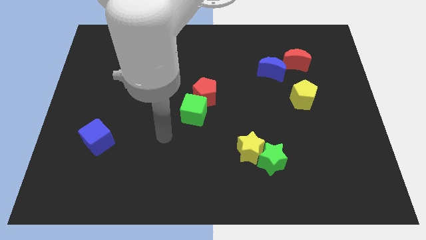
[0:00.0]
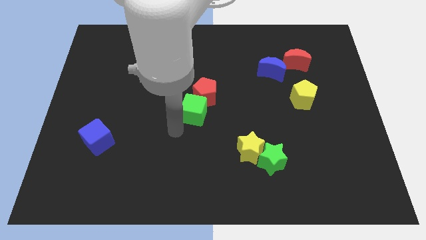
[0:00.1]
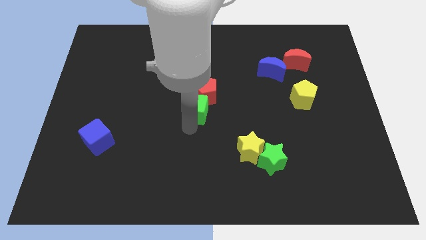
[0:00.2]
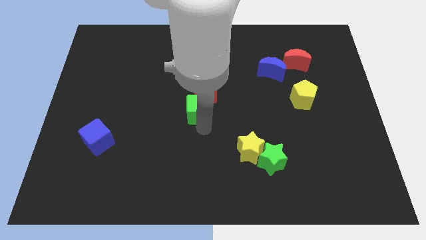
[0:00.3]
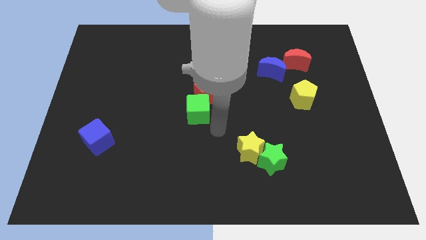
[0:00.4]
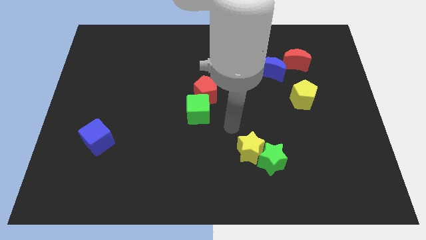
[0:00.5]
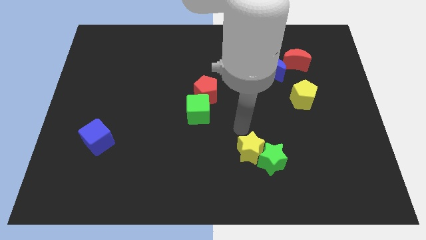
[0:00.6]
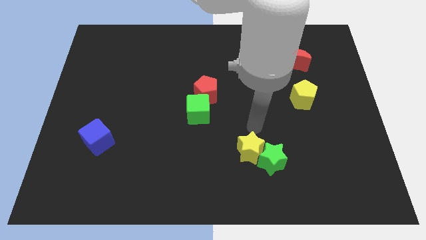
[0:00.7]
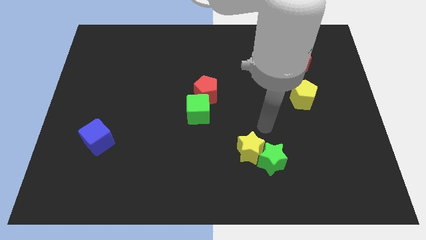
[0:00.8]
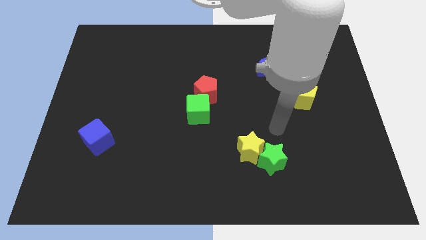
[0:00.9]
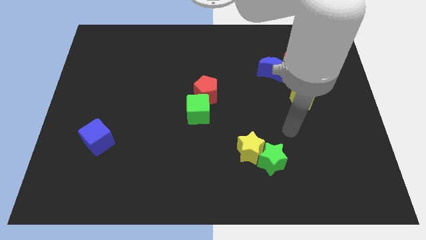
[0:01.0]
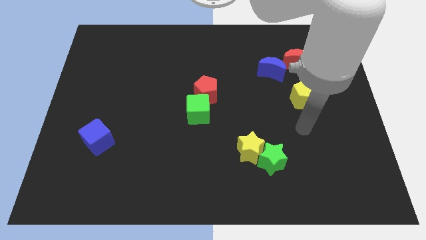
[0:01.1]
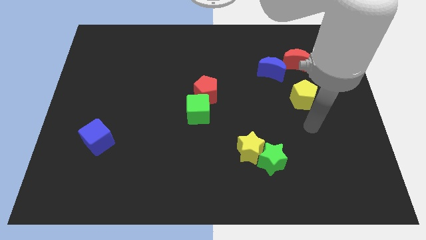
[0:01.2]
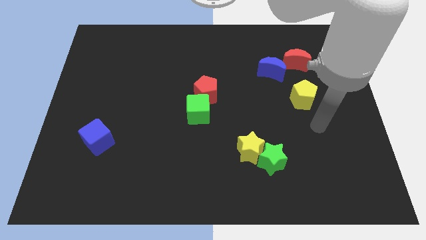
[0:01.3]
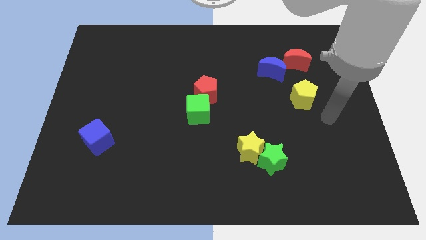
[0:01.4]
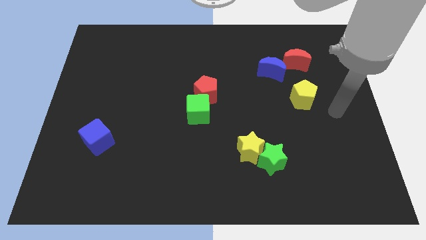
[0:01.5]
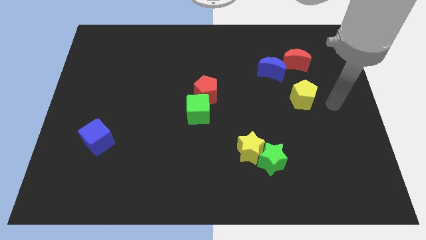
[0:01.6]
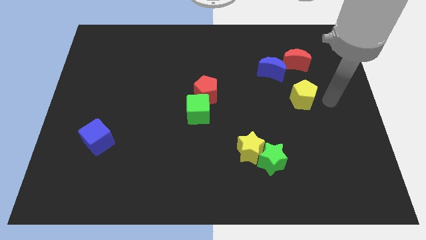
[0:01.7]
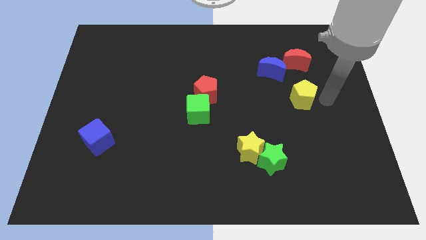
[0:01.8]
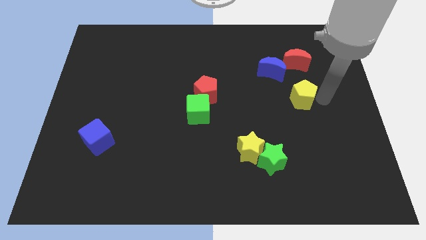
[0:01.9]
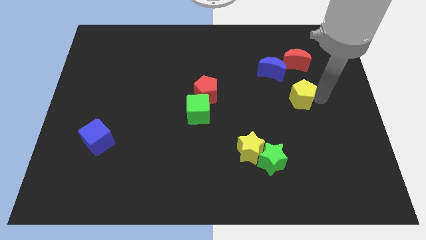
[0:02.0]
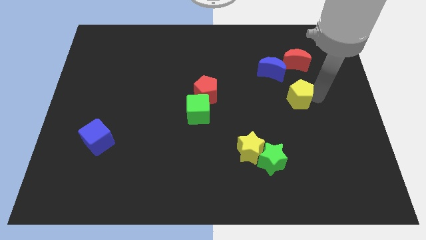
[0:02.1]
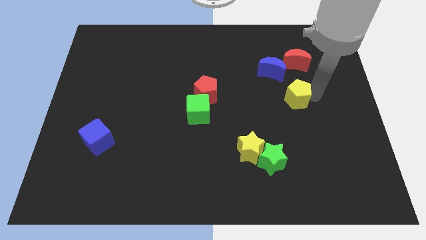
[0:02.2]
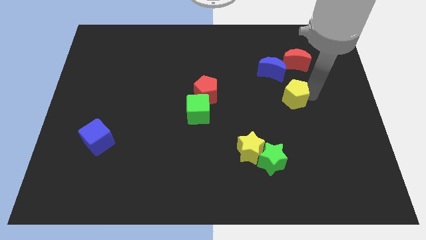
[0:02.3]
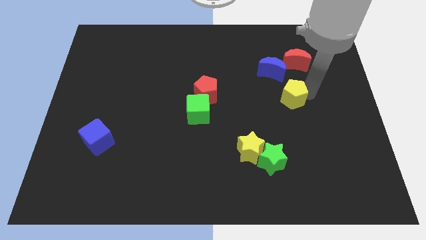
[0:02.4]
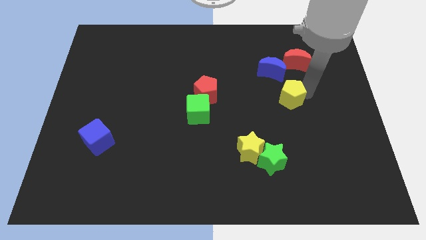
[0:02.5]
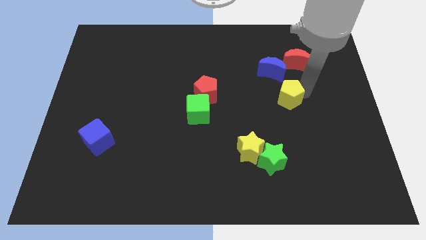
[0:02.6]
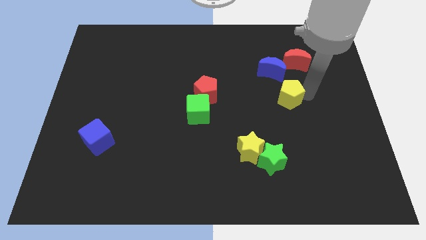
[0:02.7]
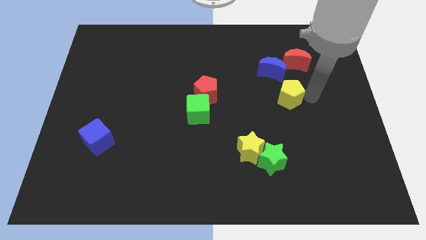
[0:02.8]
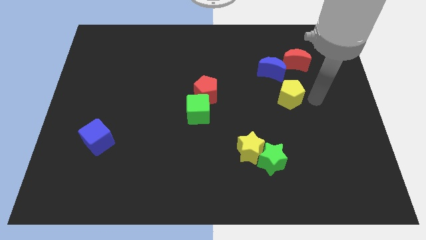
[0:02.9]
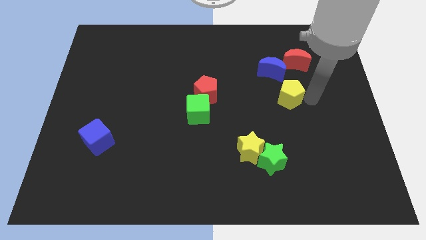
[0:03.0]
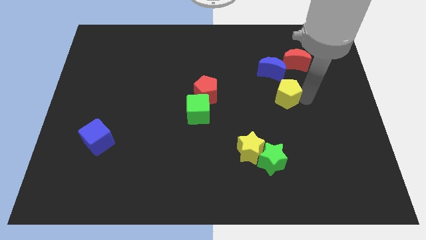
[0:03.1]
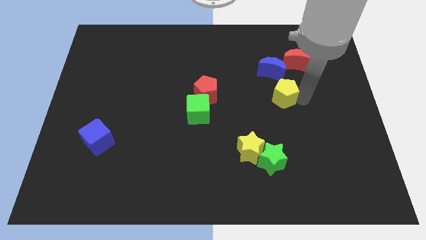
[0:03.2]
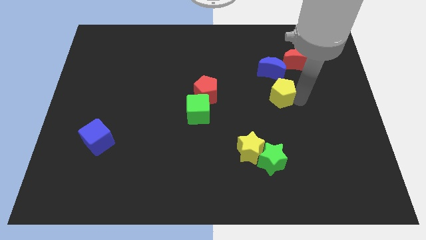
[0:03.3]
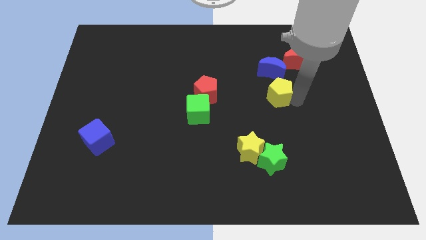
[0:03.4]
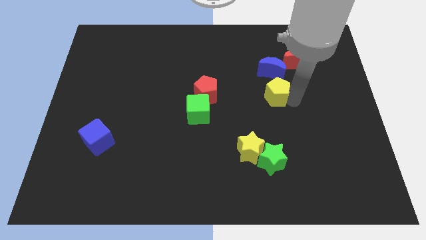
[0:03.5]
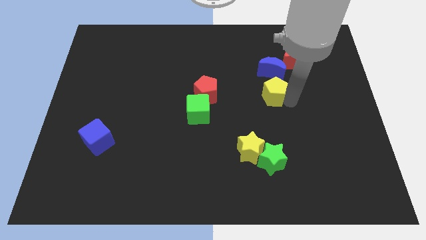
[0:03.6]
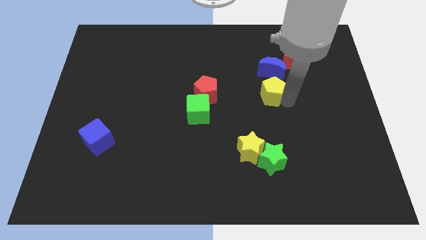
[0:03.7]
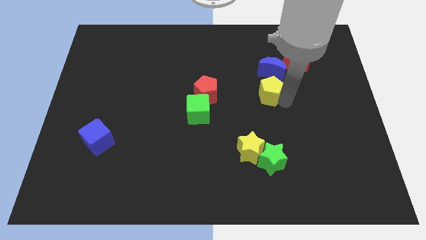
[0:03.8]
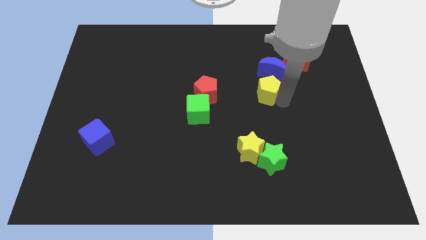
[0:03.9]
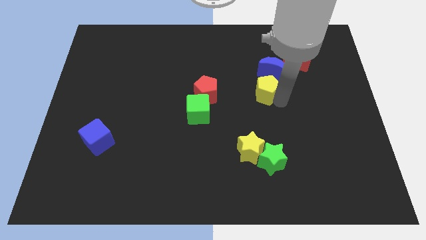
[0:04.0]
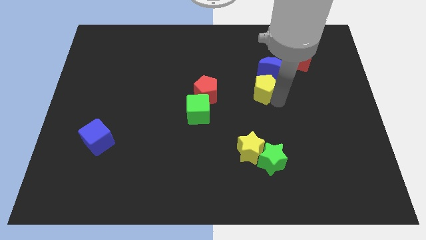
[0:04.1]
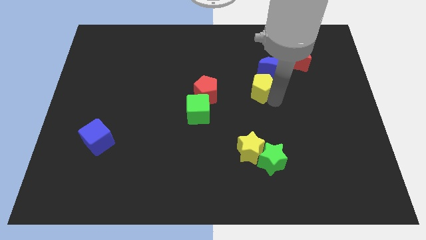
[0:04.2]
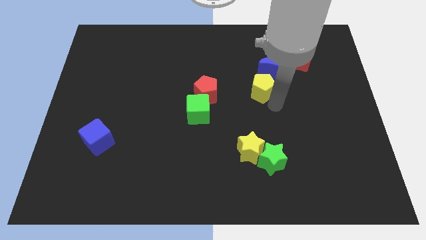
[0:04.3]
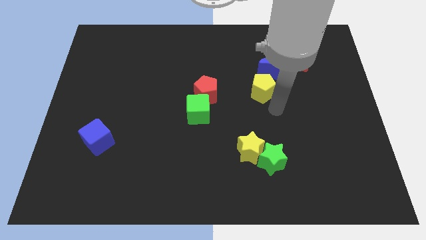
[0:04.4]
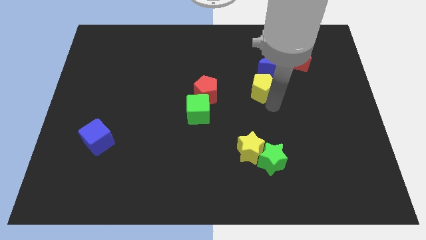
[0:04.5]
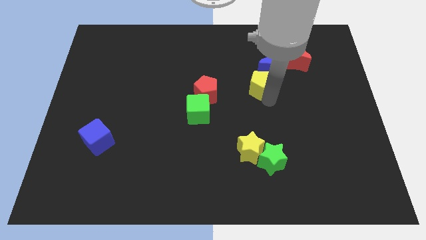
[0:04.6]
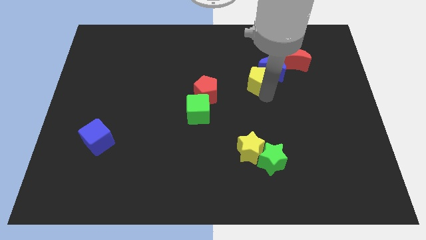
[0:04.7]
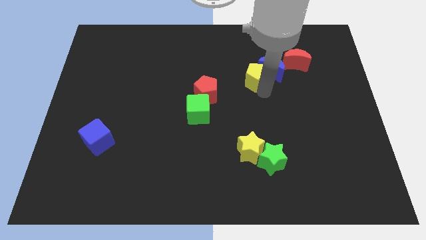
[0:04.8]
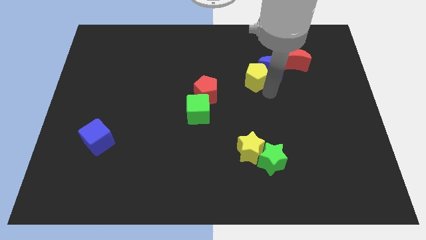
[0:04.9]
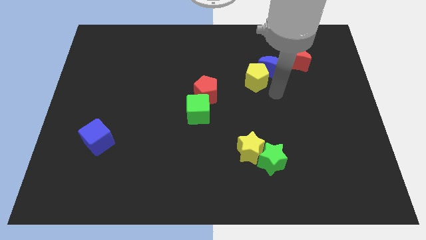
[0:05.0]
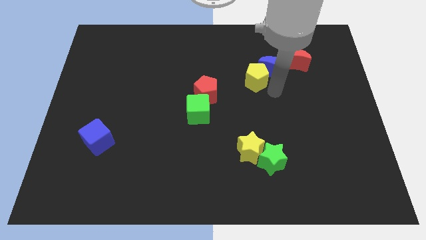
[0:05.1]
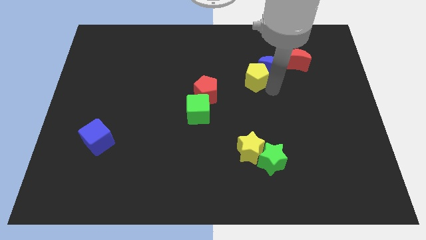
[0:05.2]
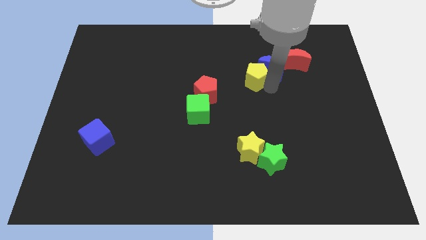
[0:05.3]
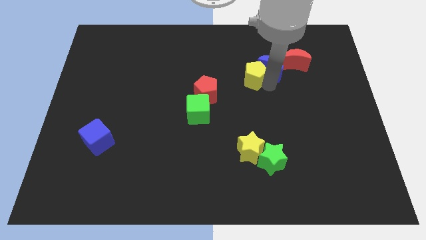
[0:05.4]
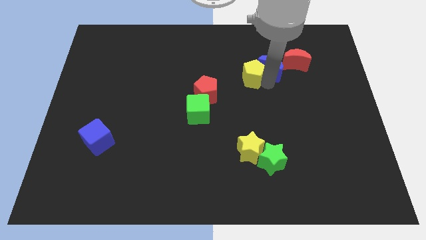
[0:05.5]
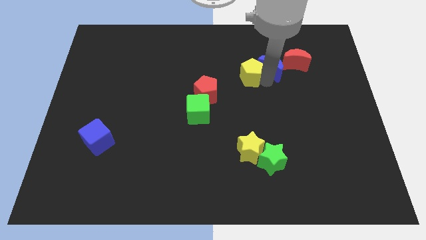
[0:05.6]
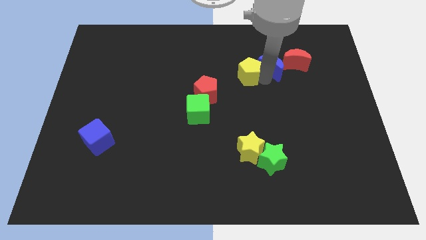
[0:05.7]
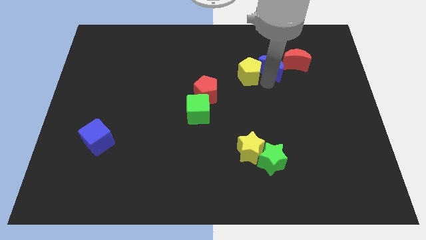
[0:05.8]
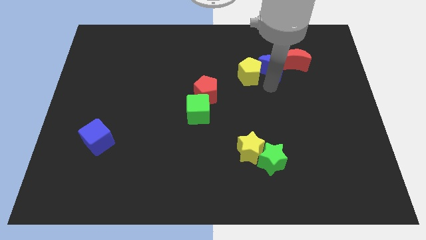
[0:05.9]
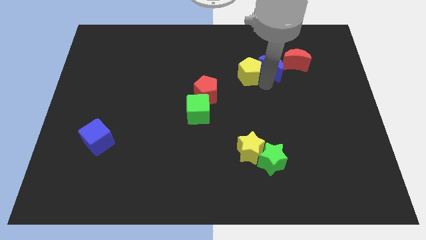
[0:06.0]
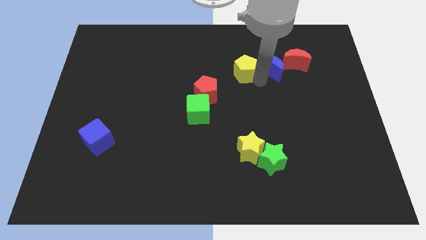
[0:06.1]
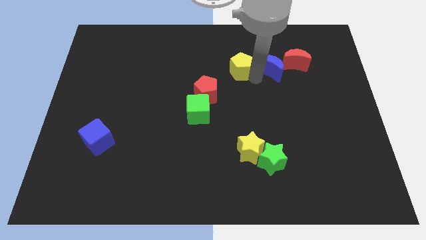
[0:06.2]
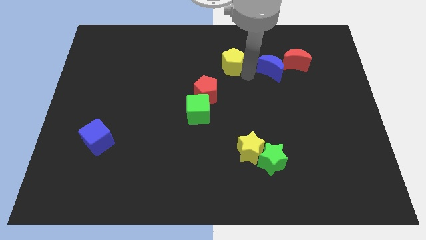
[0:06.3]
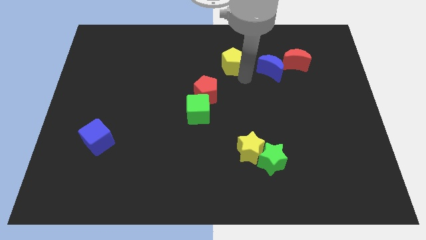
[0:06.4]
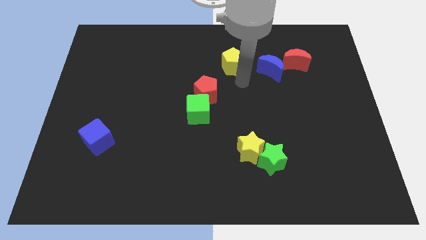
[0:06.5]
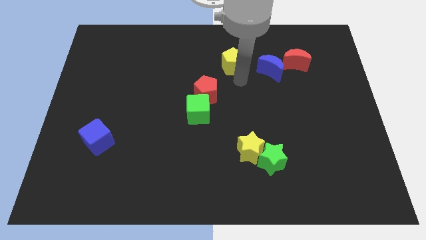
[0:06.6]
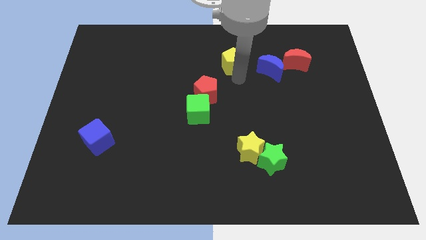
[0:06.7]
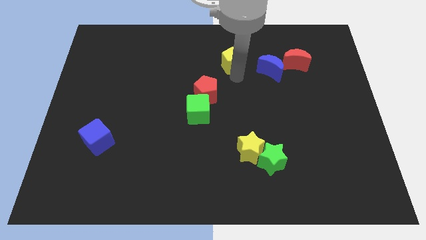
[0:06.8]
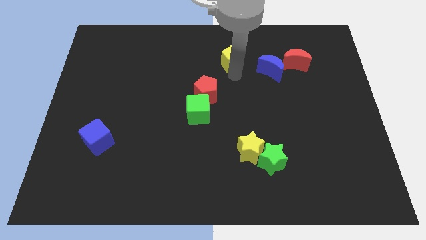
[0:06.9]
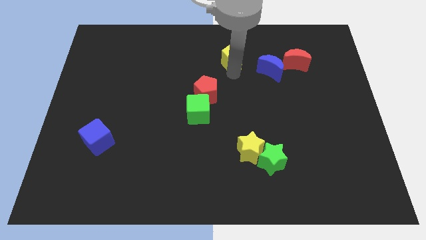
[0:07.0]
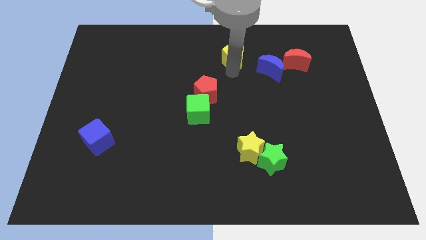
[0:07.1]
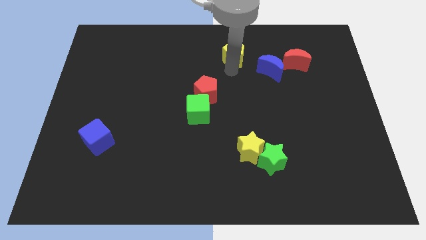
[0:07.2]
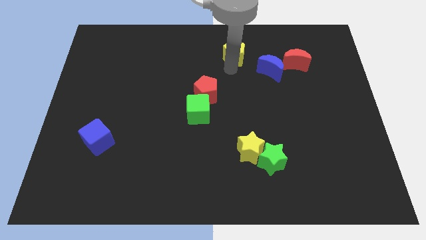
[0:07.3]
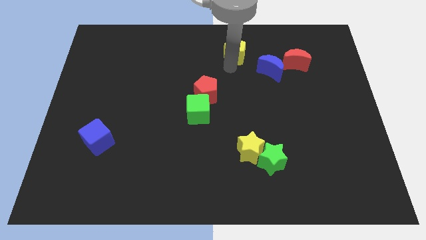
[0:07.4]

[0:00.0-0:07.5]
move the yellow pentagon to the top
